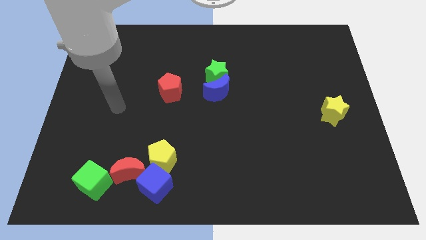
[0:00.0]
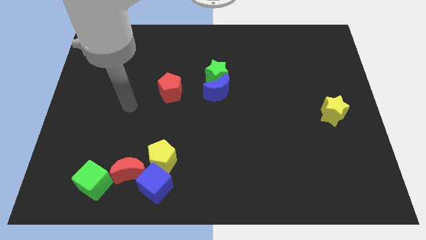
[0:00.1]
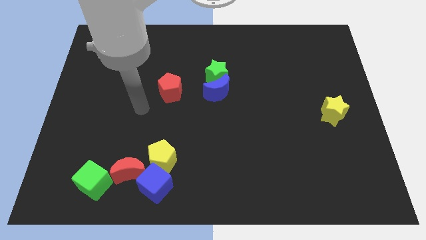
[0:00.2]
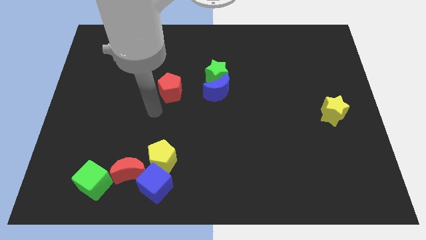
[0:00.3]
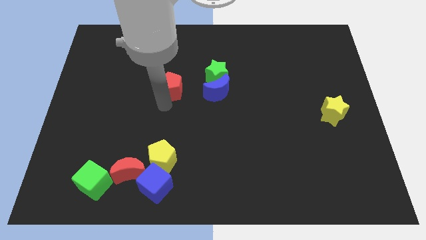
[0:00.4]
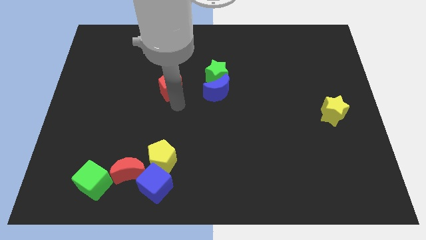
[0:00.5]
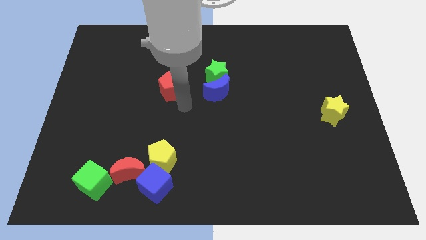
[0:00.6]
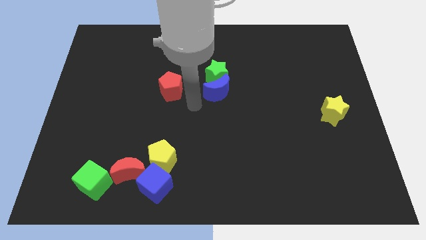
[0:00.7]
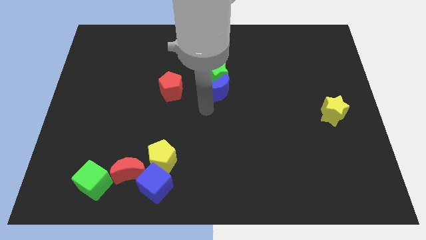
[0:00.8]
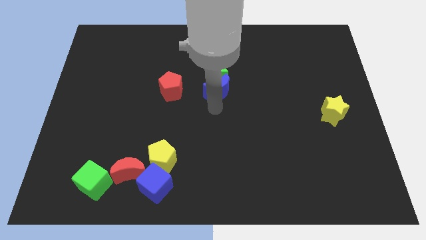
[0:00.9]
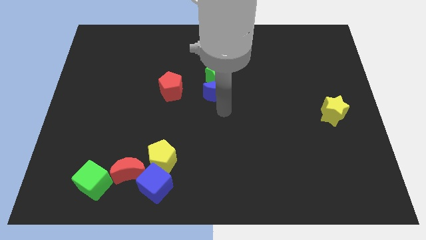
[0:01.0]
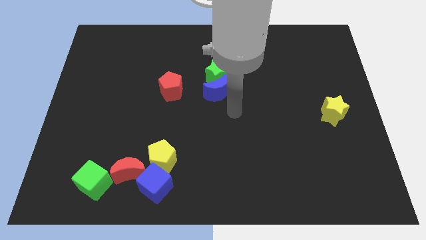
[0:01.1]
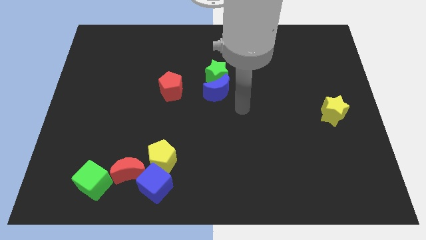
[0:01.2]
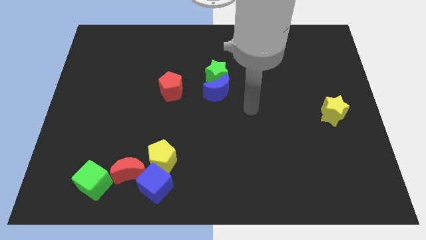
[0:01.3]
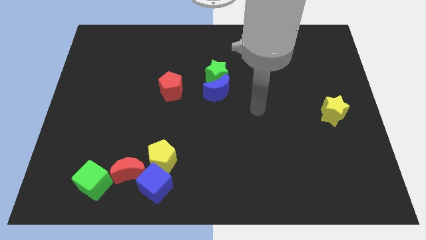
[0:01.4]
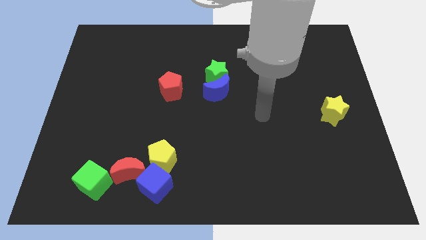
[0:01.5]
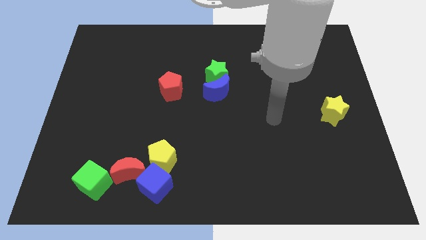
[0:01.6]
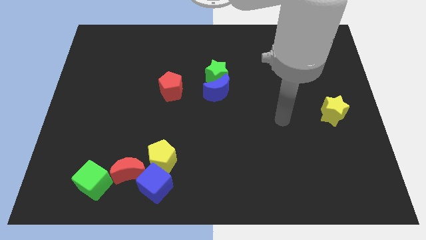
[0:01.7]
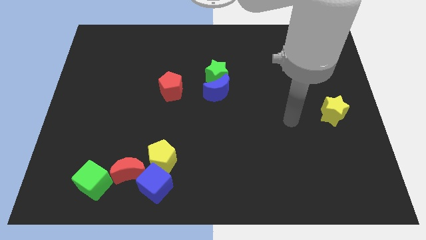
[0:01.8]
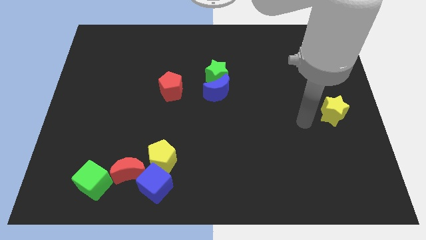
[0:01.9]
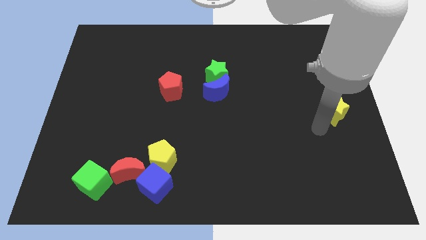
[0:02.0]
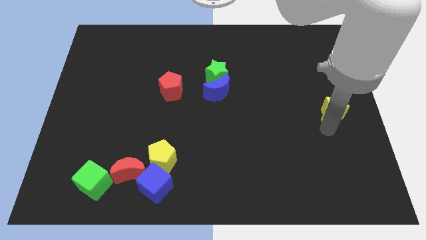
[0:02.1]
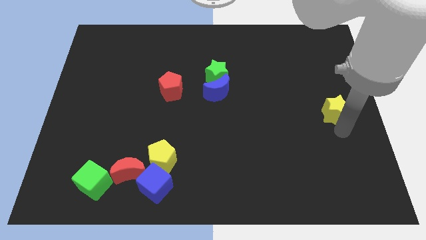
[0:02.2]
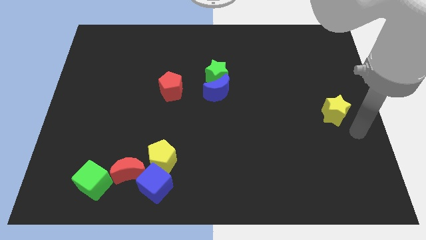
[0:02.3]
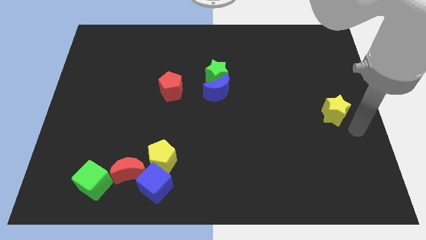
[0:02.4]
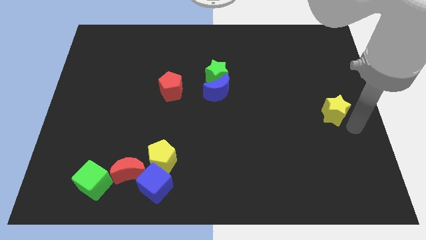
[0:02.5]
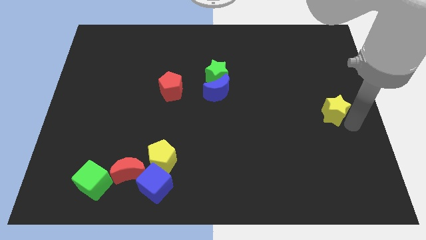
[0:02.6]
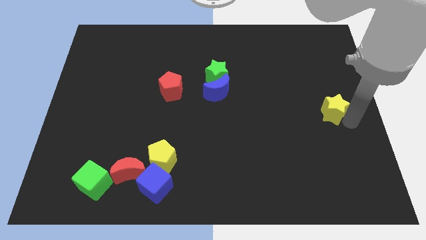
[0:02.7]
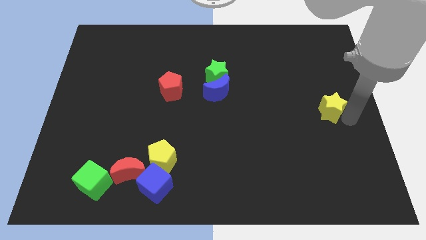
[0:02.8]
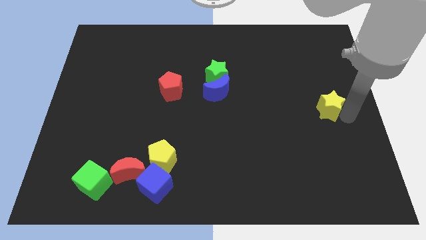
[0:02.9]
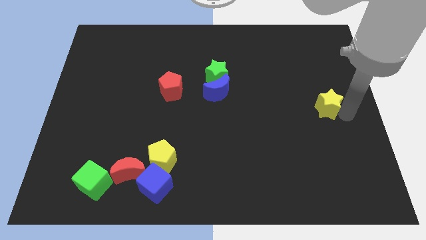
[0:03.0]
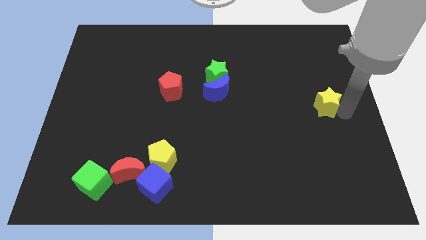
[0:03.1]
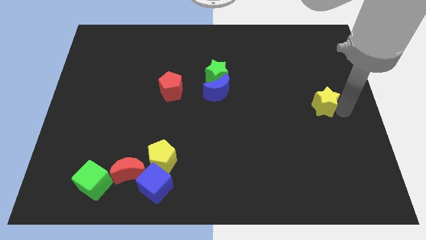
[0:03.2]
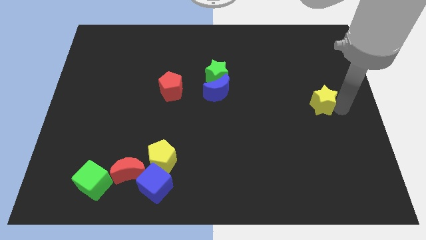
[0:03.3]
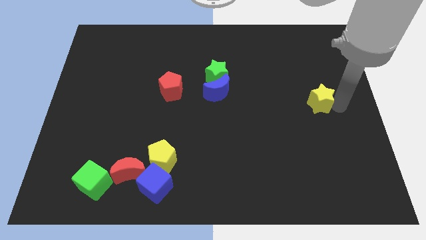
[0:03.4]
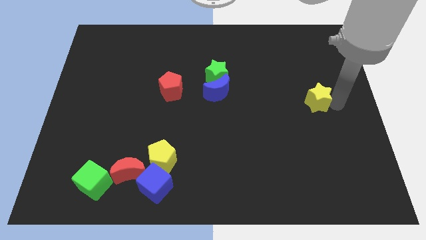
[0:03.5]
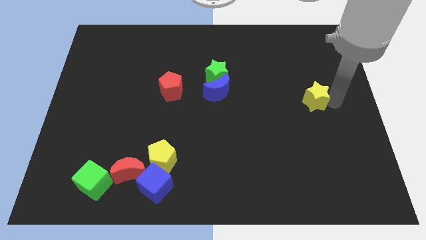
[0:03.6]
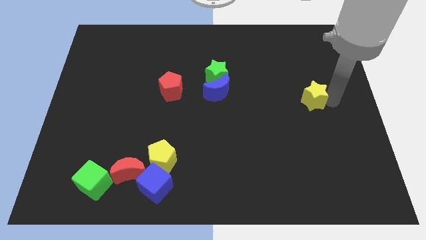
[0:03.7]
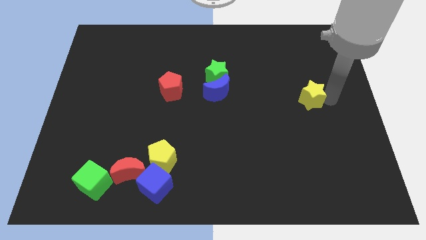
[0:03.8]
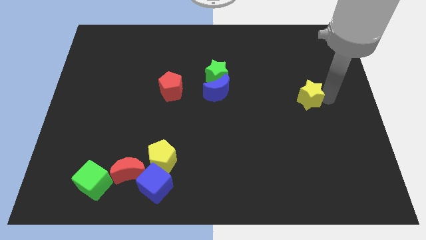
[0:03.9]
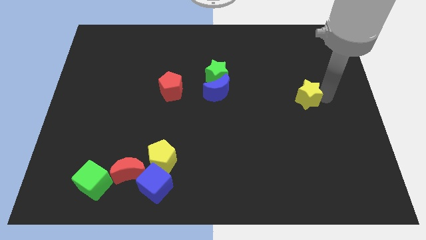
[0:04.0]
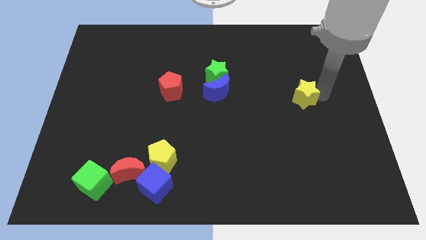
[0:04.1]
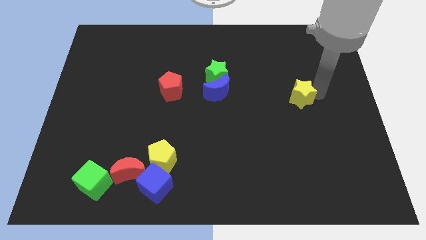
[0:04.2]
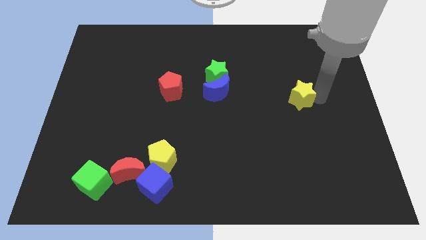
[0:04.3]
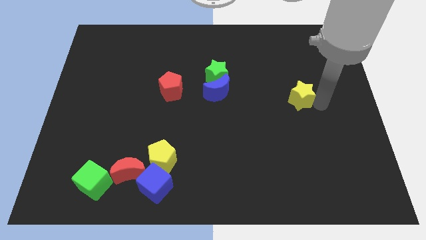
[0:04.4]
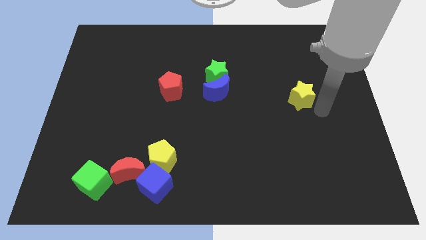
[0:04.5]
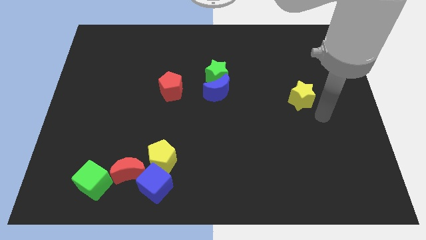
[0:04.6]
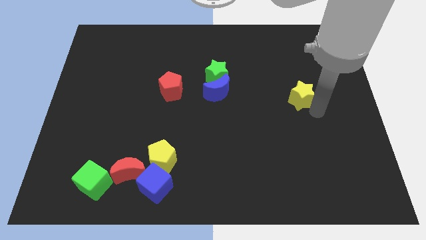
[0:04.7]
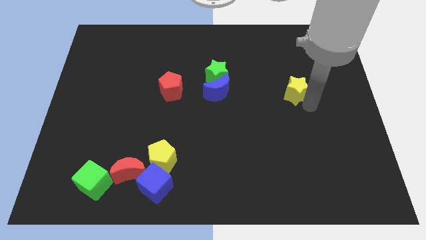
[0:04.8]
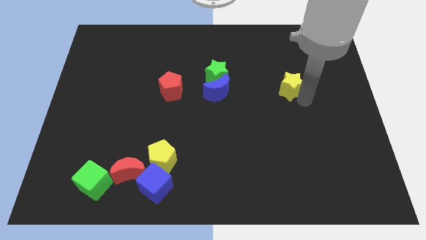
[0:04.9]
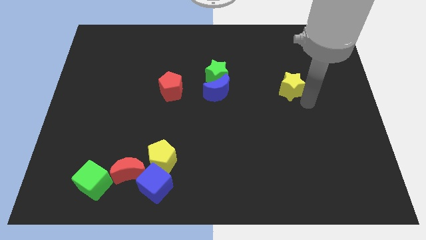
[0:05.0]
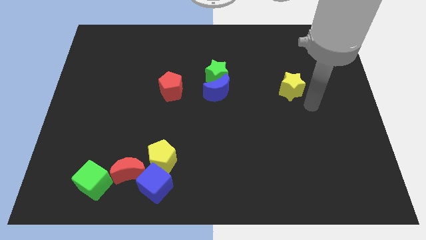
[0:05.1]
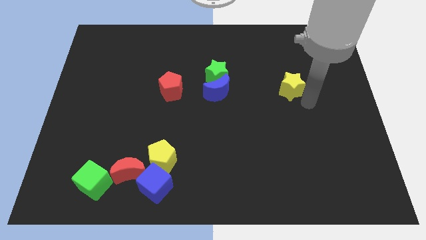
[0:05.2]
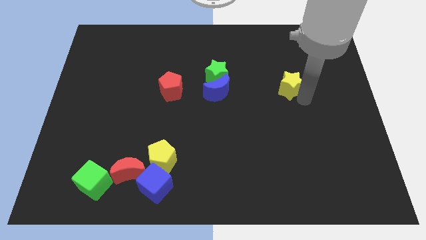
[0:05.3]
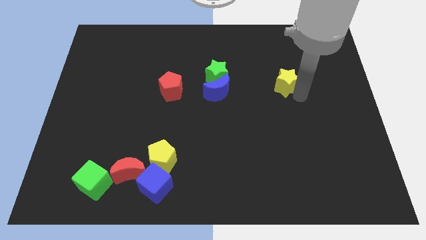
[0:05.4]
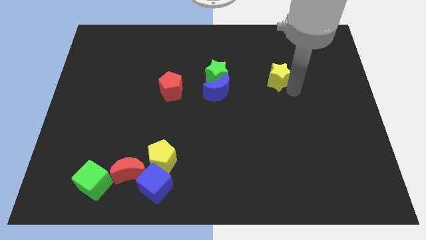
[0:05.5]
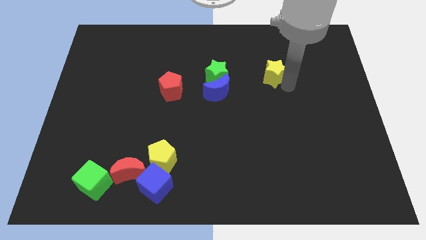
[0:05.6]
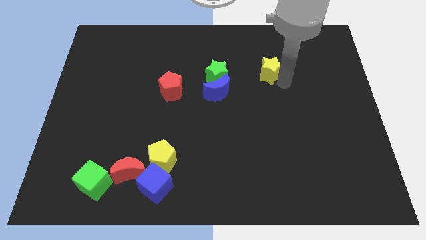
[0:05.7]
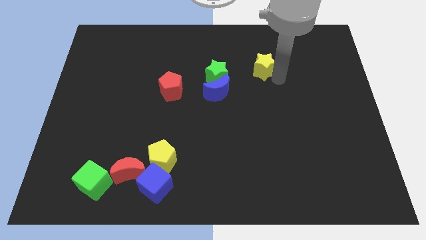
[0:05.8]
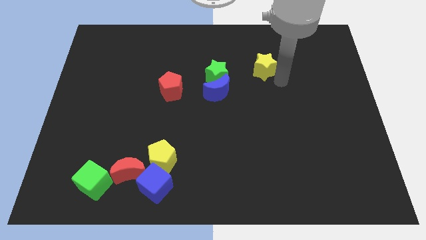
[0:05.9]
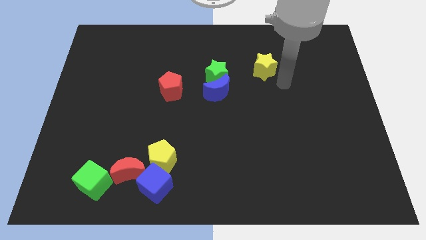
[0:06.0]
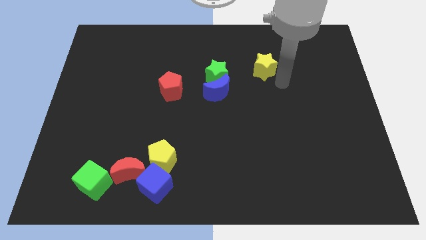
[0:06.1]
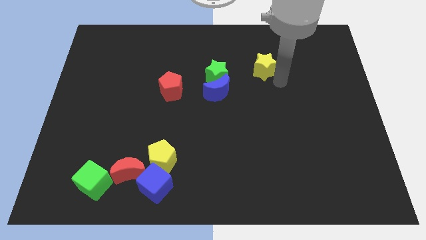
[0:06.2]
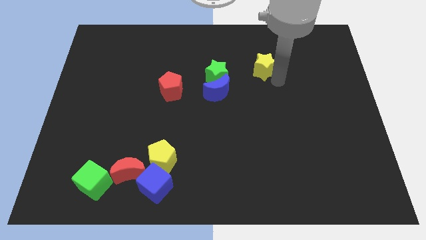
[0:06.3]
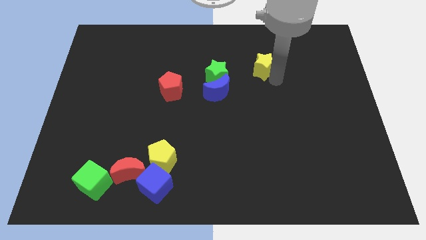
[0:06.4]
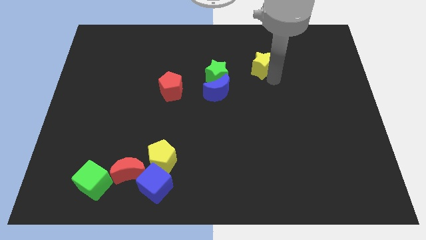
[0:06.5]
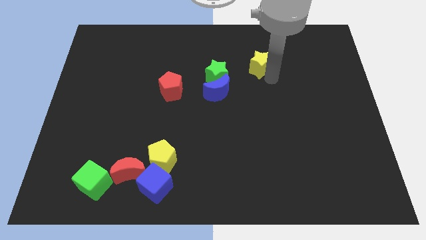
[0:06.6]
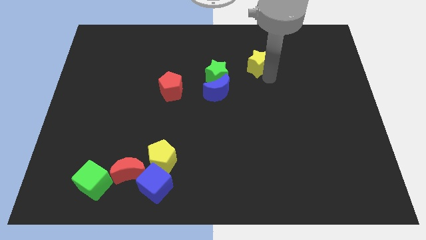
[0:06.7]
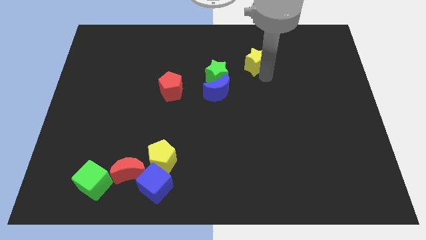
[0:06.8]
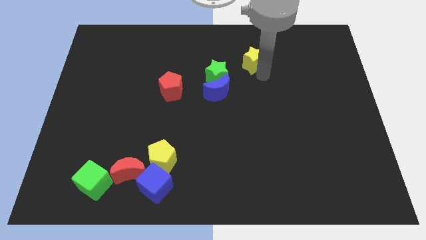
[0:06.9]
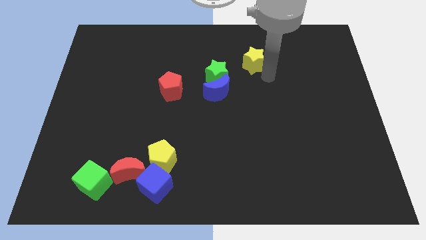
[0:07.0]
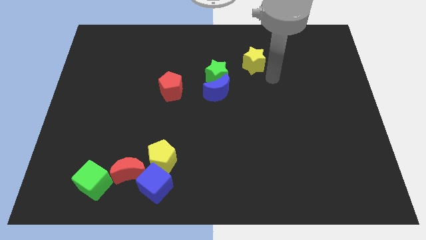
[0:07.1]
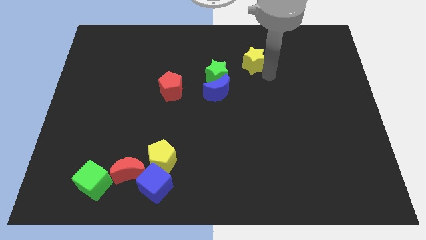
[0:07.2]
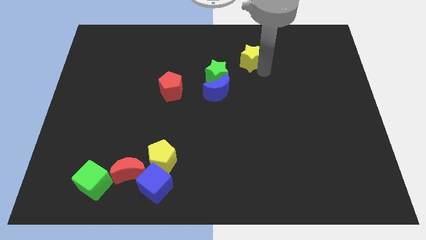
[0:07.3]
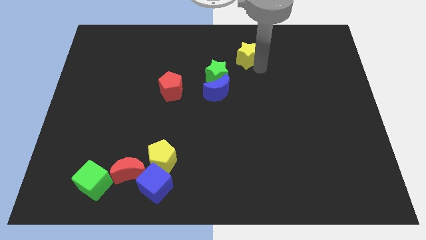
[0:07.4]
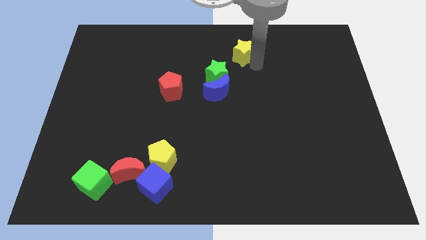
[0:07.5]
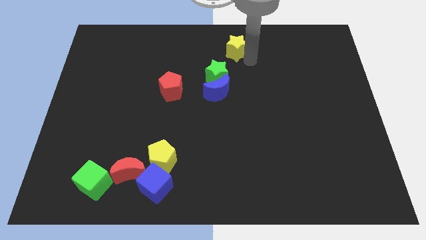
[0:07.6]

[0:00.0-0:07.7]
put the yellow star to the top
